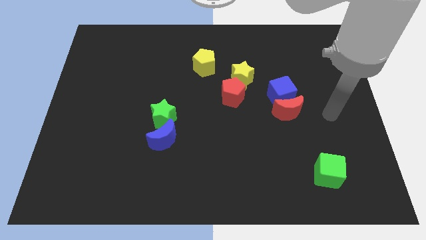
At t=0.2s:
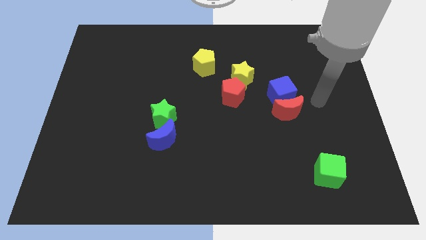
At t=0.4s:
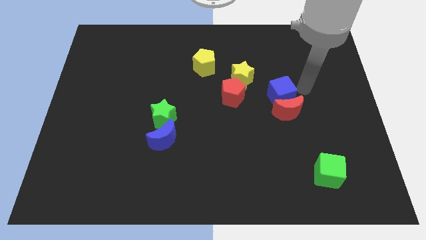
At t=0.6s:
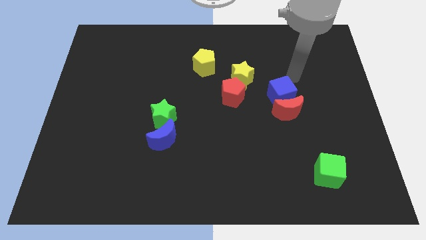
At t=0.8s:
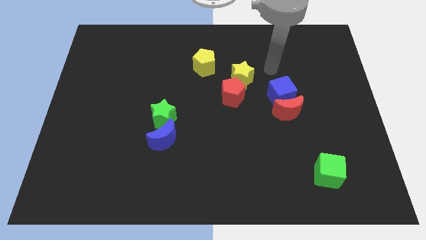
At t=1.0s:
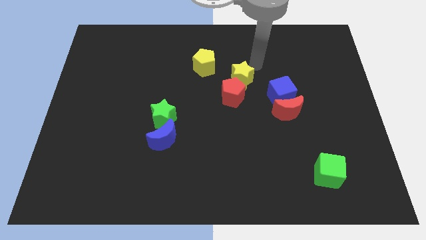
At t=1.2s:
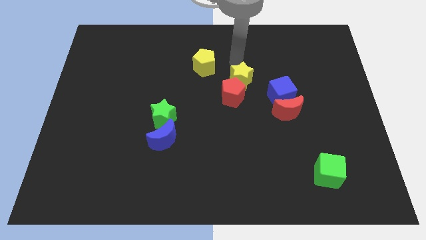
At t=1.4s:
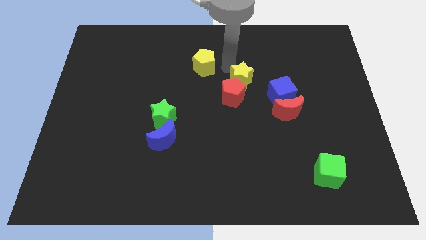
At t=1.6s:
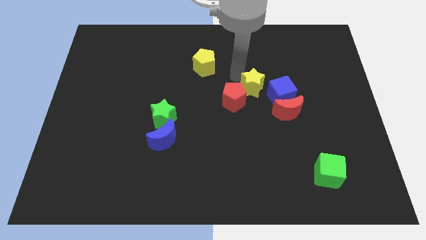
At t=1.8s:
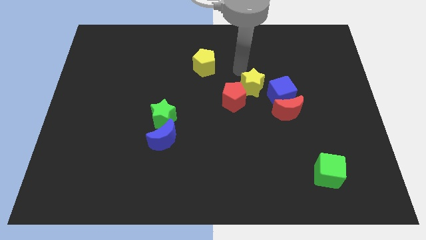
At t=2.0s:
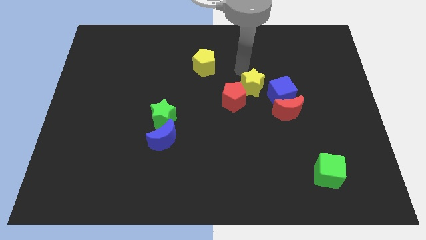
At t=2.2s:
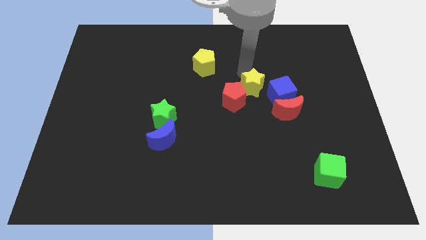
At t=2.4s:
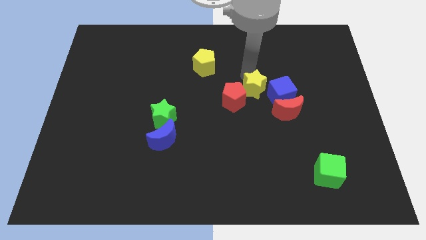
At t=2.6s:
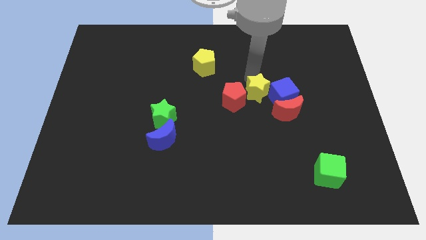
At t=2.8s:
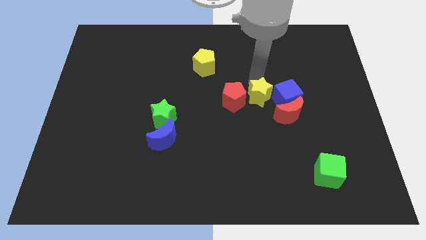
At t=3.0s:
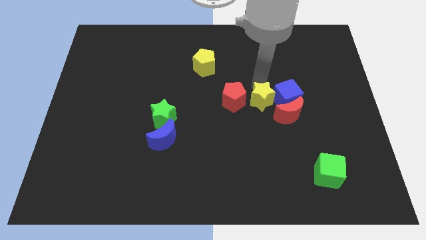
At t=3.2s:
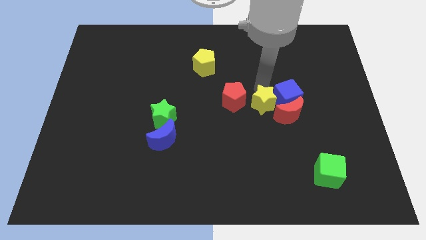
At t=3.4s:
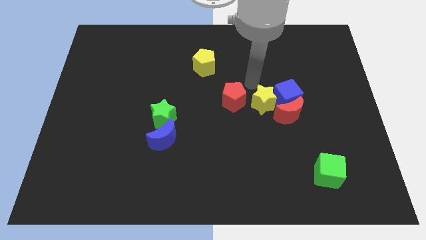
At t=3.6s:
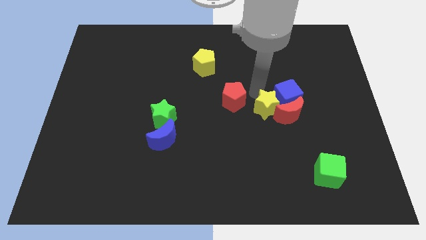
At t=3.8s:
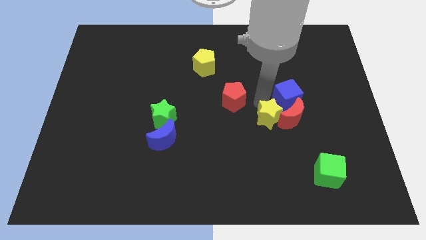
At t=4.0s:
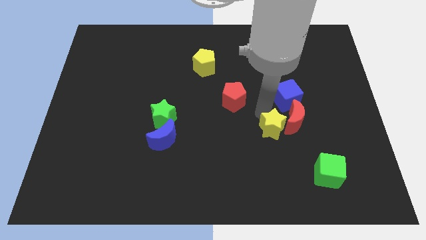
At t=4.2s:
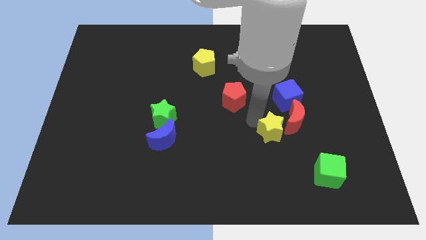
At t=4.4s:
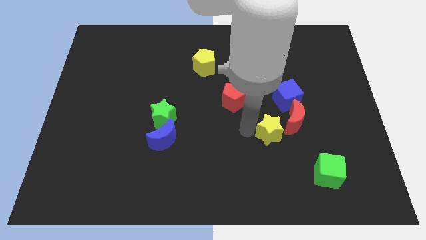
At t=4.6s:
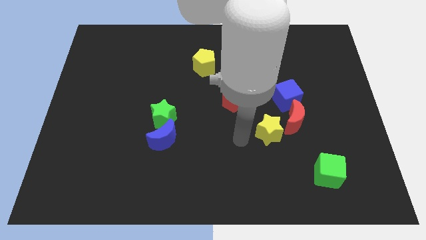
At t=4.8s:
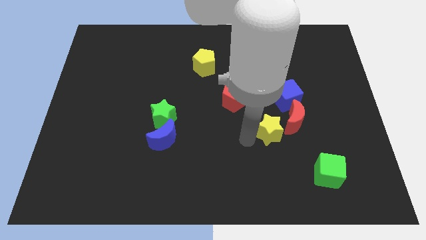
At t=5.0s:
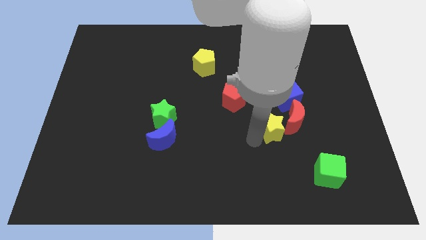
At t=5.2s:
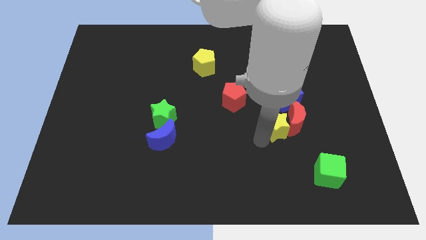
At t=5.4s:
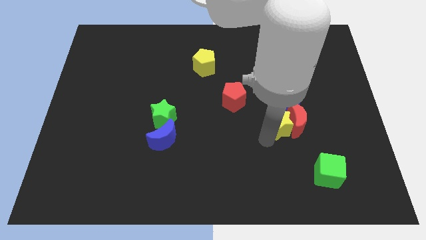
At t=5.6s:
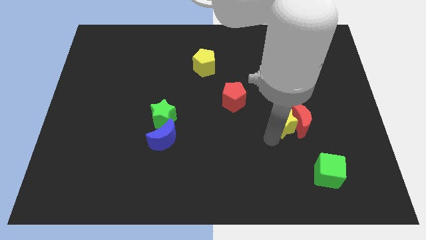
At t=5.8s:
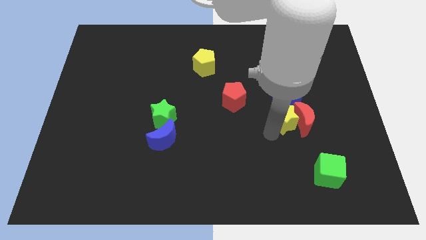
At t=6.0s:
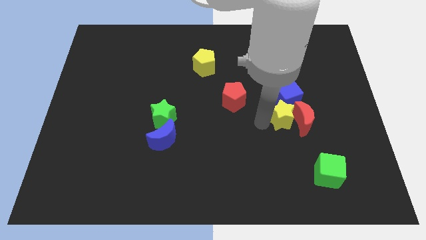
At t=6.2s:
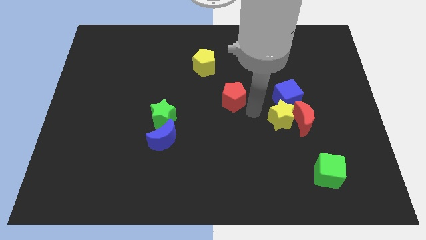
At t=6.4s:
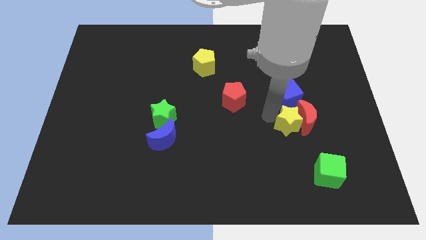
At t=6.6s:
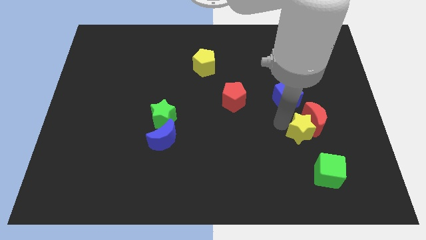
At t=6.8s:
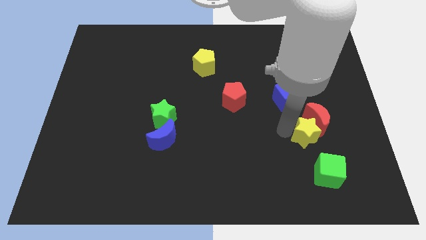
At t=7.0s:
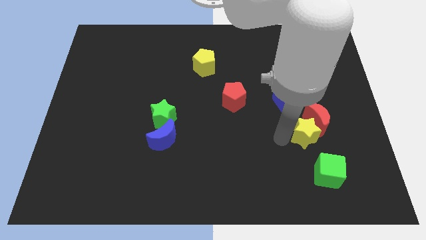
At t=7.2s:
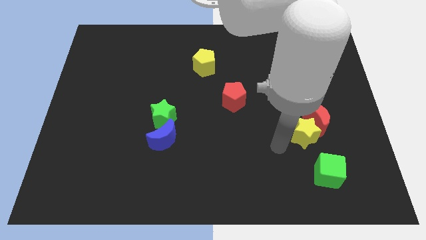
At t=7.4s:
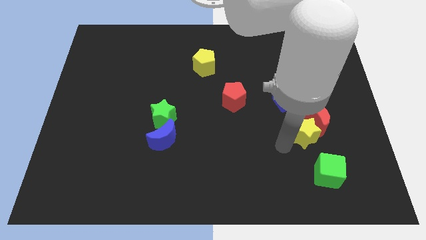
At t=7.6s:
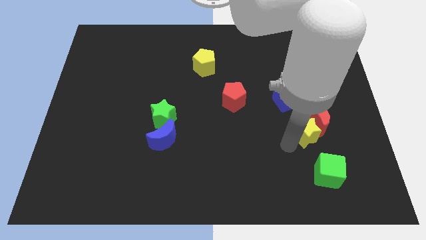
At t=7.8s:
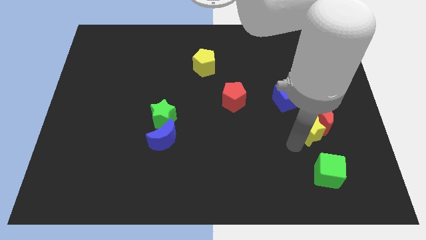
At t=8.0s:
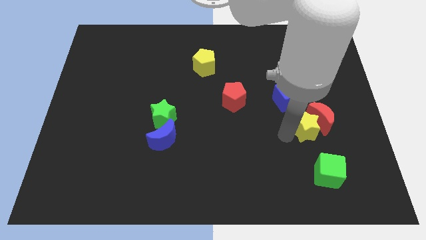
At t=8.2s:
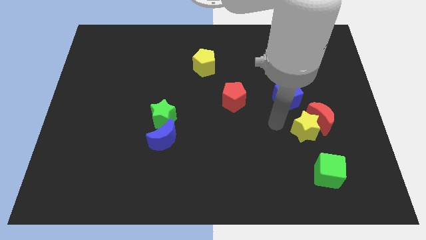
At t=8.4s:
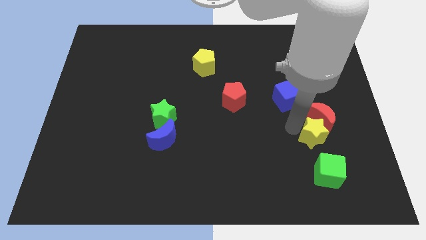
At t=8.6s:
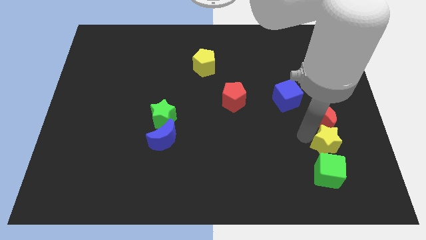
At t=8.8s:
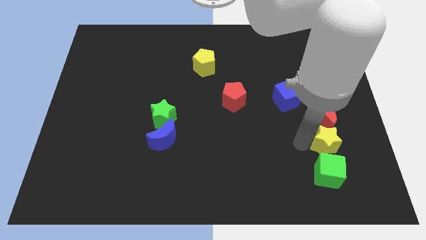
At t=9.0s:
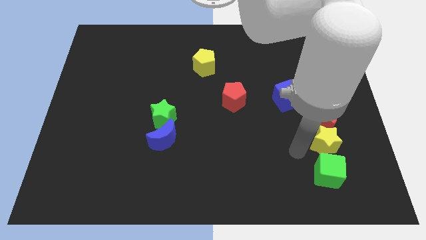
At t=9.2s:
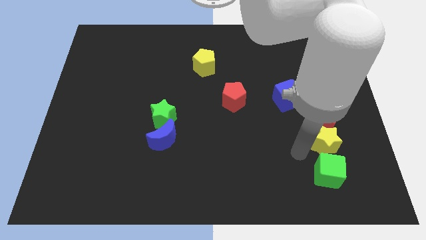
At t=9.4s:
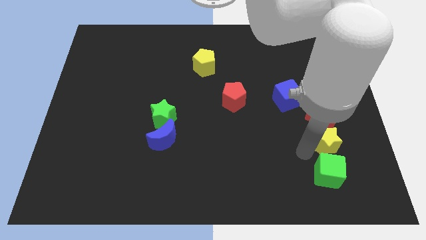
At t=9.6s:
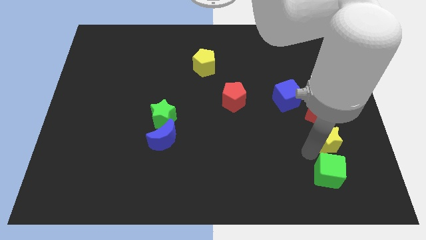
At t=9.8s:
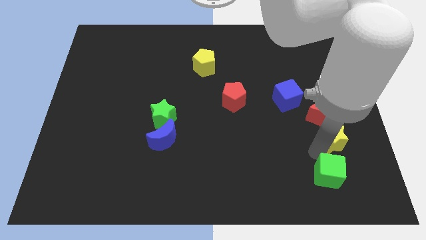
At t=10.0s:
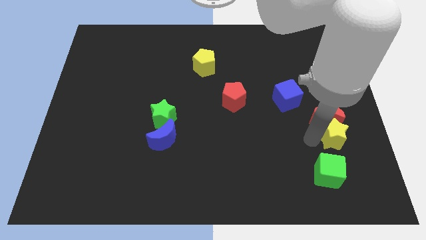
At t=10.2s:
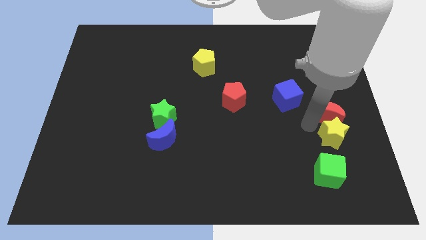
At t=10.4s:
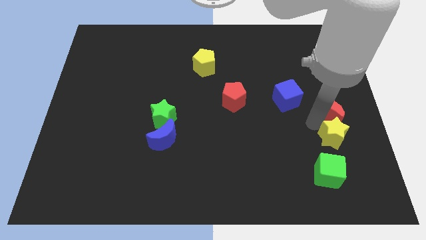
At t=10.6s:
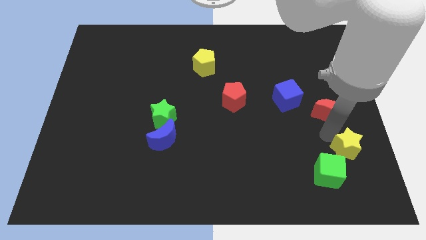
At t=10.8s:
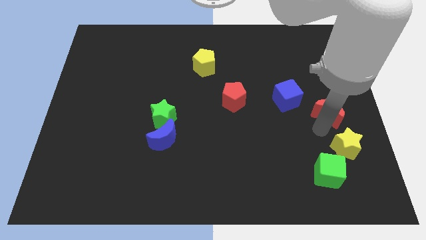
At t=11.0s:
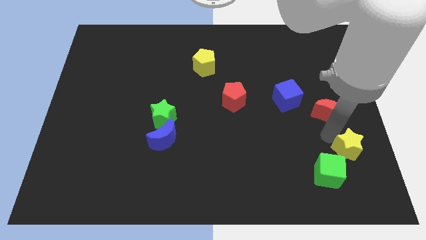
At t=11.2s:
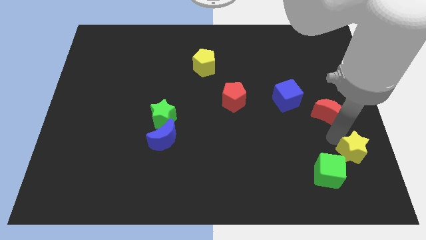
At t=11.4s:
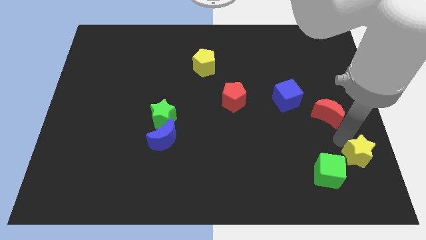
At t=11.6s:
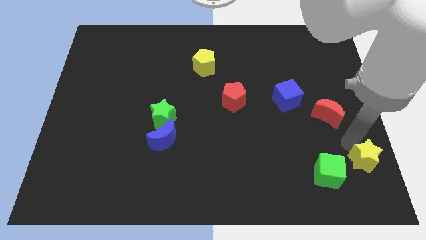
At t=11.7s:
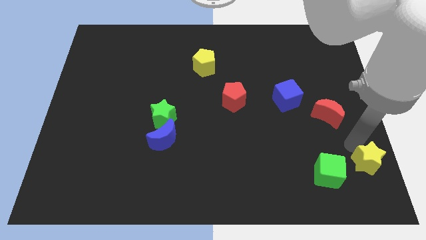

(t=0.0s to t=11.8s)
put the yellow star to the lower right corner
